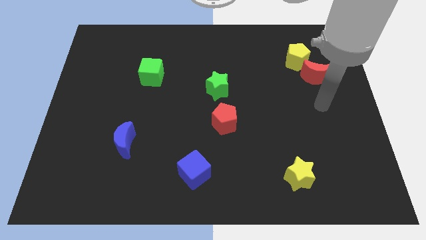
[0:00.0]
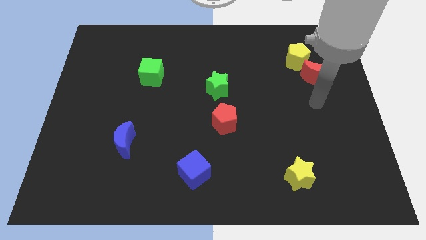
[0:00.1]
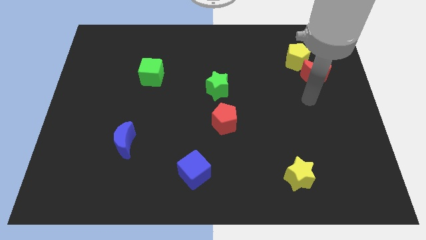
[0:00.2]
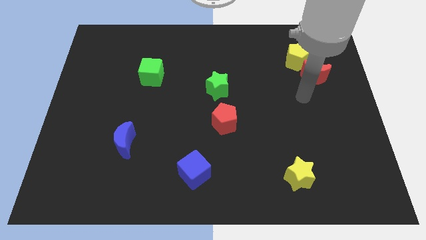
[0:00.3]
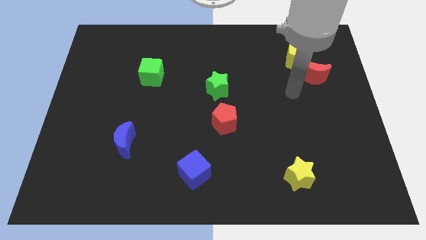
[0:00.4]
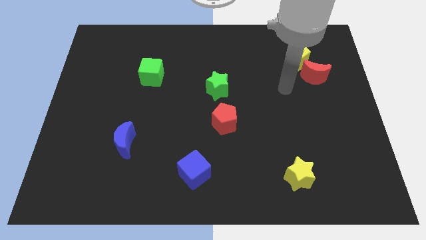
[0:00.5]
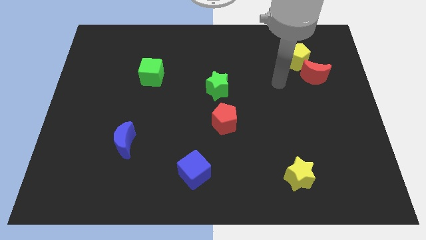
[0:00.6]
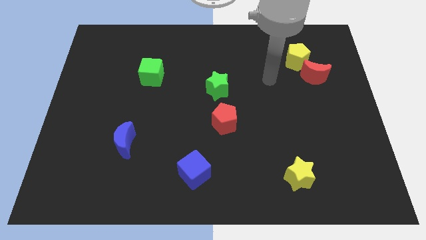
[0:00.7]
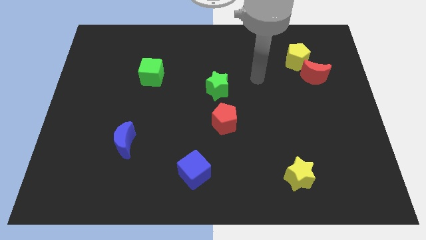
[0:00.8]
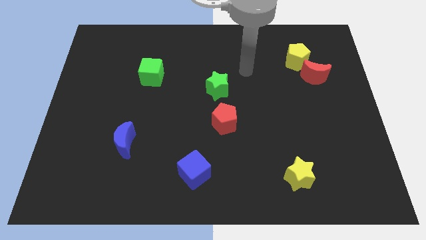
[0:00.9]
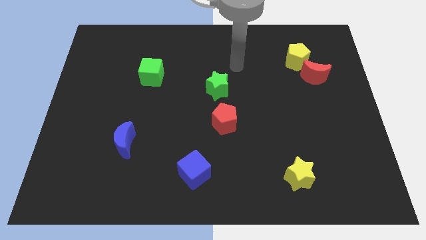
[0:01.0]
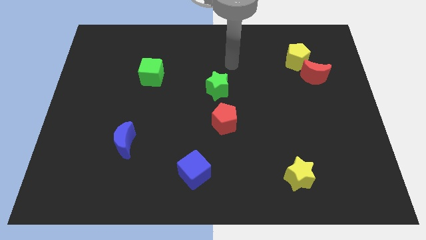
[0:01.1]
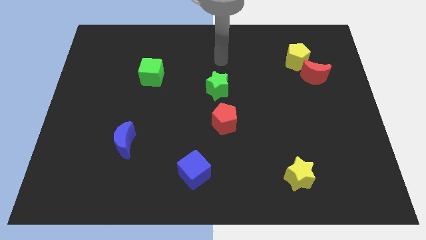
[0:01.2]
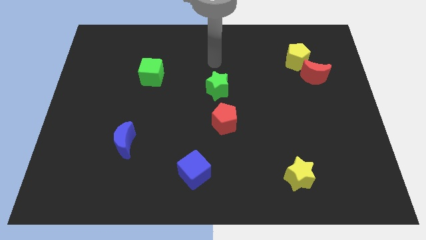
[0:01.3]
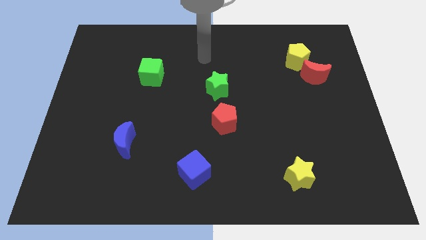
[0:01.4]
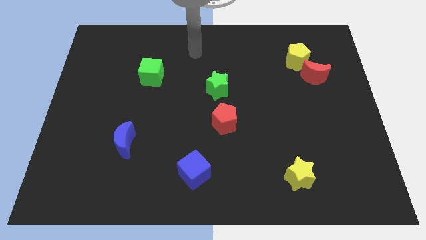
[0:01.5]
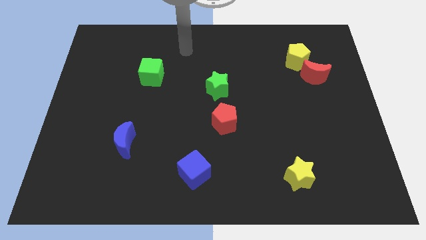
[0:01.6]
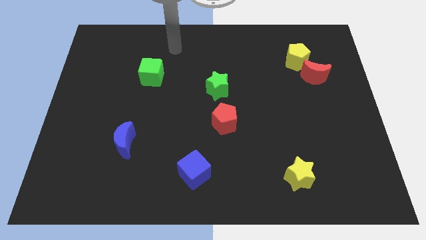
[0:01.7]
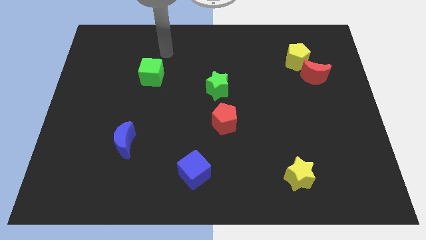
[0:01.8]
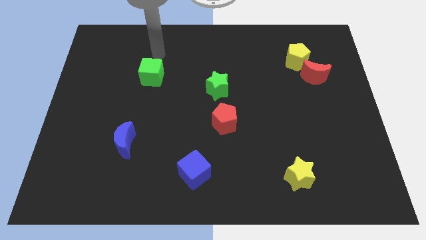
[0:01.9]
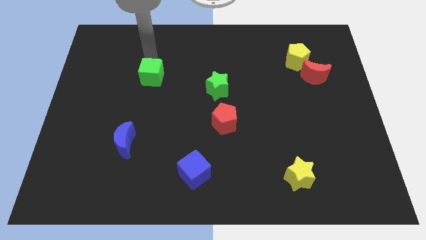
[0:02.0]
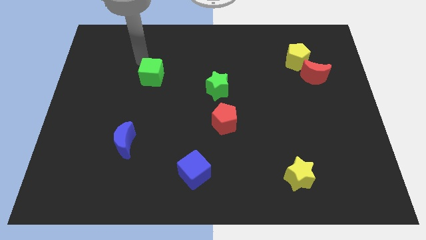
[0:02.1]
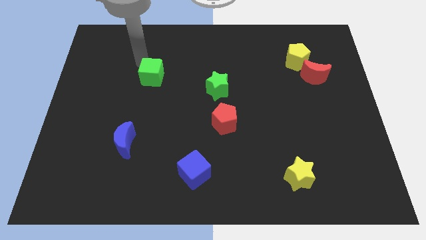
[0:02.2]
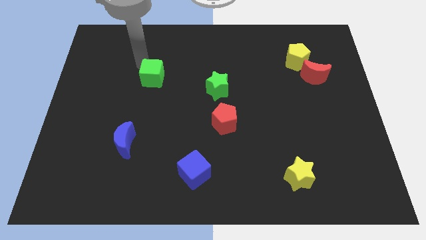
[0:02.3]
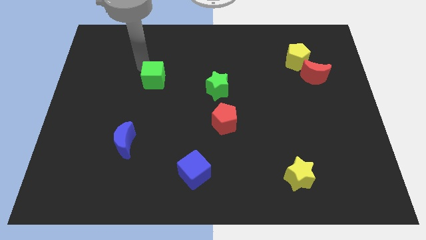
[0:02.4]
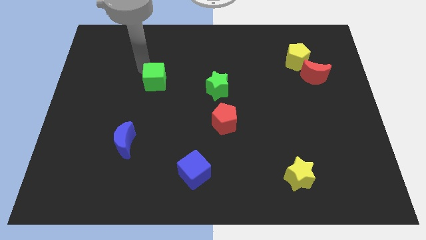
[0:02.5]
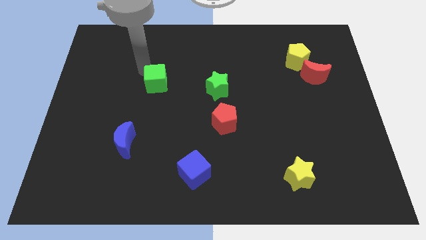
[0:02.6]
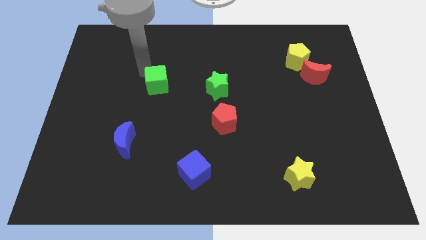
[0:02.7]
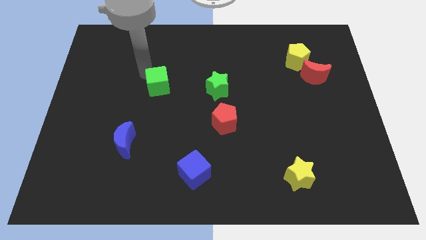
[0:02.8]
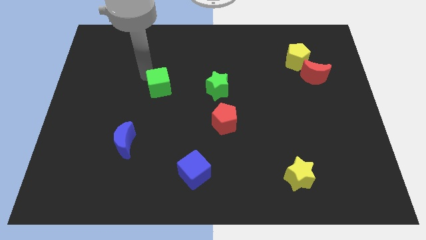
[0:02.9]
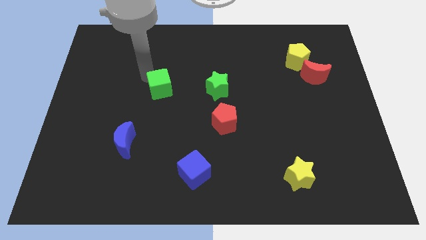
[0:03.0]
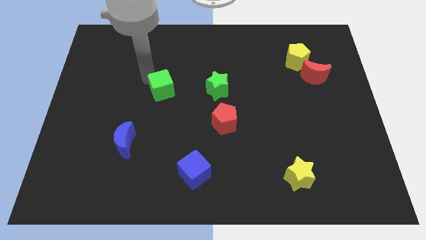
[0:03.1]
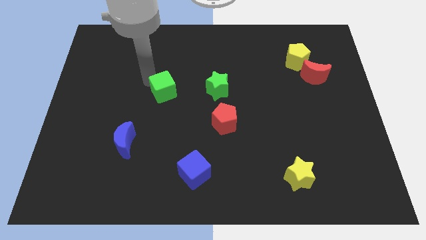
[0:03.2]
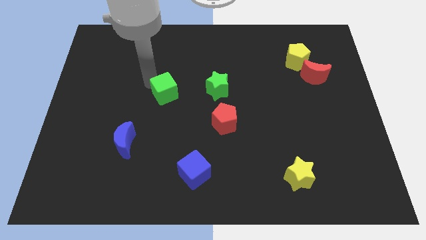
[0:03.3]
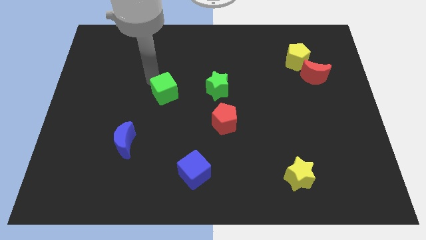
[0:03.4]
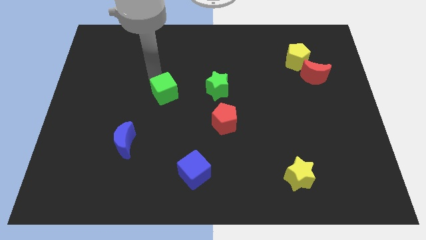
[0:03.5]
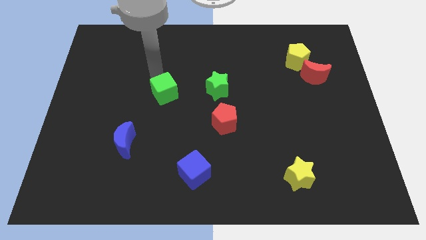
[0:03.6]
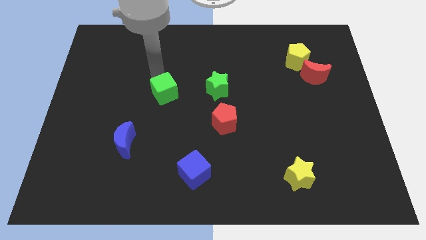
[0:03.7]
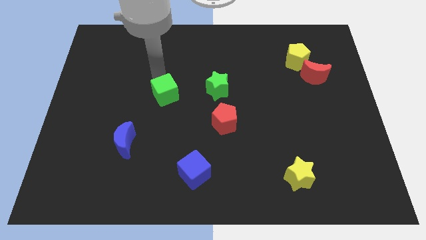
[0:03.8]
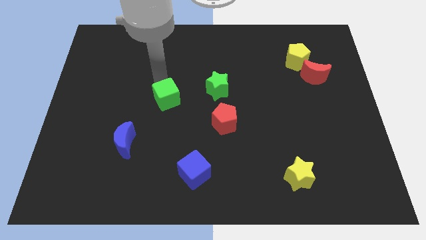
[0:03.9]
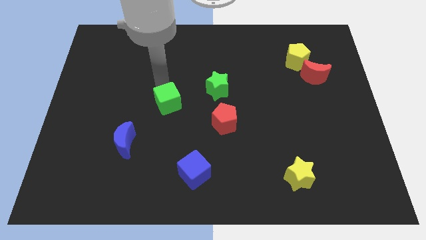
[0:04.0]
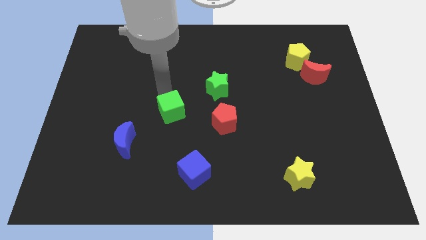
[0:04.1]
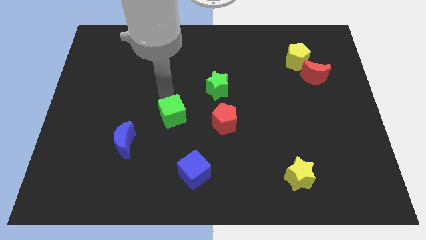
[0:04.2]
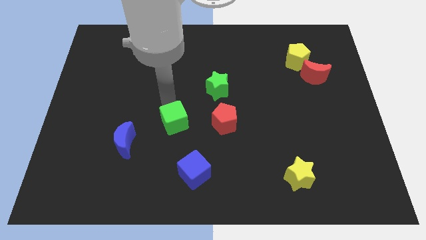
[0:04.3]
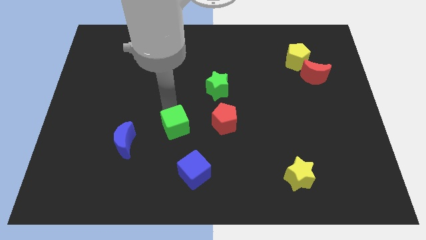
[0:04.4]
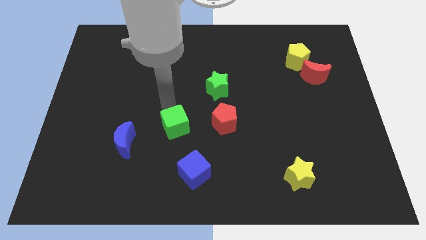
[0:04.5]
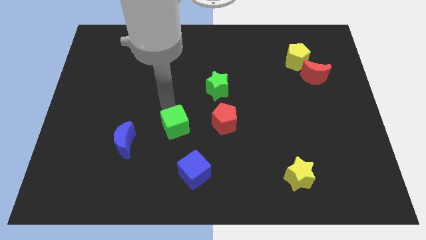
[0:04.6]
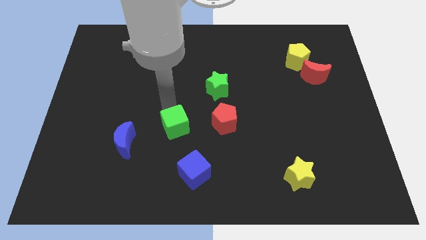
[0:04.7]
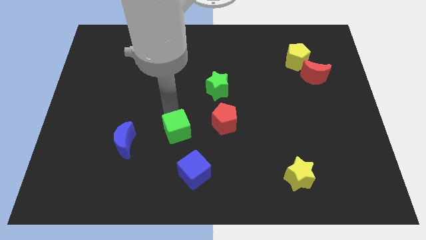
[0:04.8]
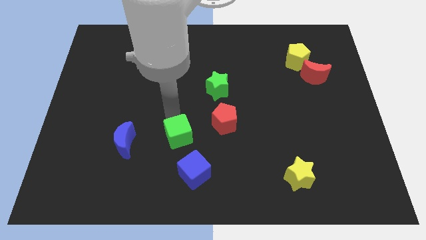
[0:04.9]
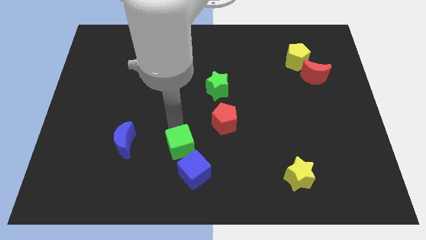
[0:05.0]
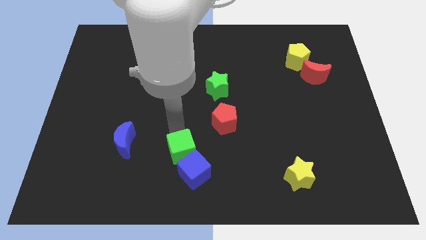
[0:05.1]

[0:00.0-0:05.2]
move the green cube close to the blue cube

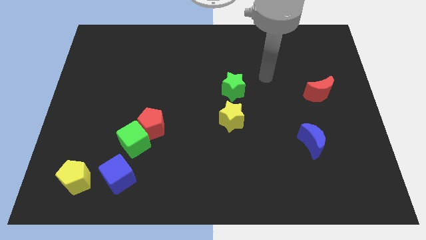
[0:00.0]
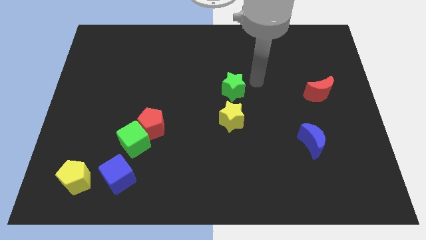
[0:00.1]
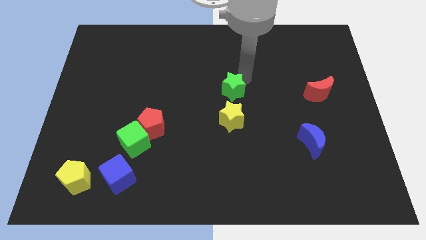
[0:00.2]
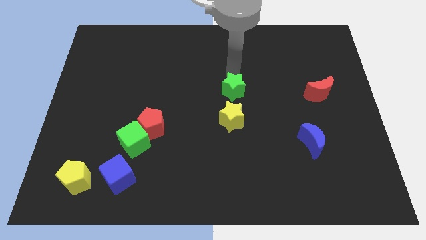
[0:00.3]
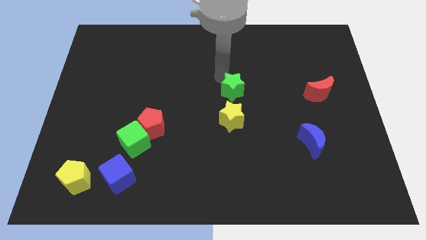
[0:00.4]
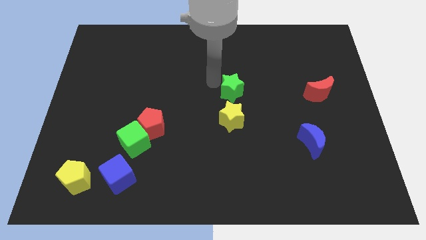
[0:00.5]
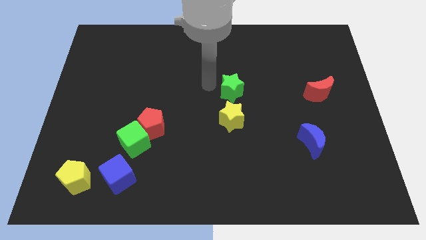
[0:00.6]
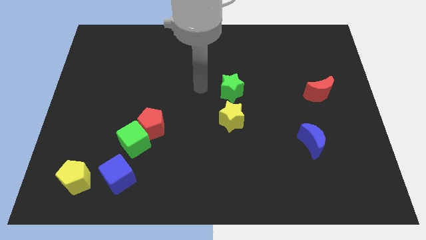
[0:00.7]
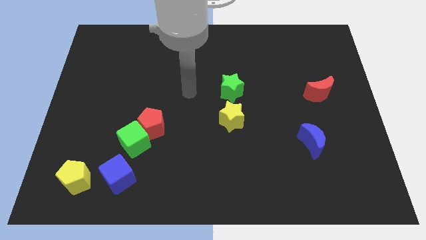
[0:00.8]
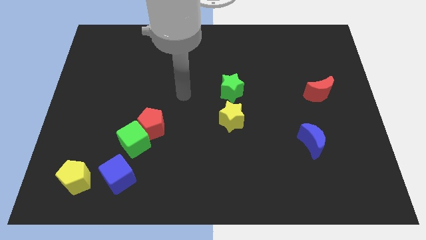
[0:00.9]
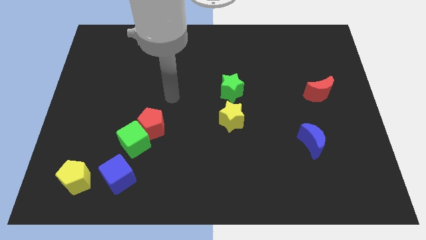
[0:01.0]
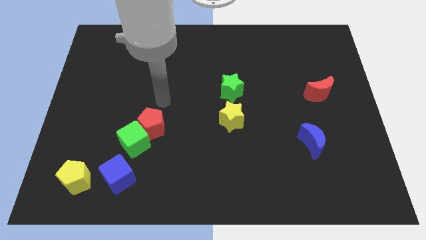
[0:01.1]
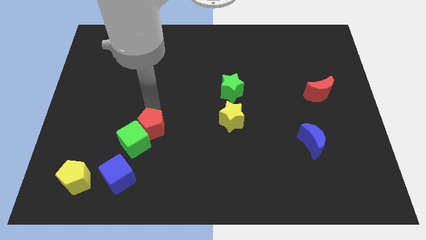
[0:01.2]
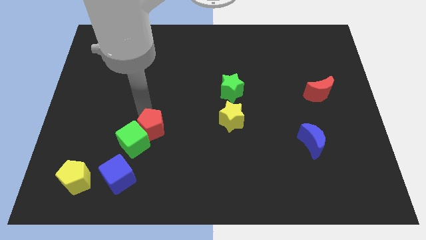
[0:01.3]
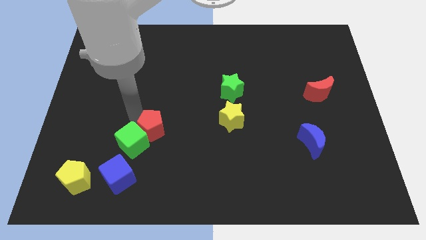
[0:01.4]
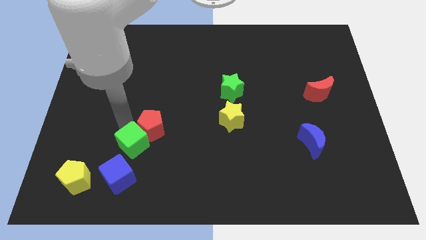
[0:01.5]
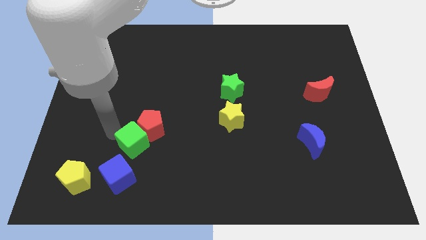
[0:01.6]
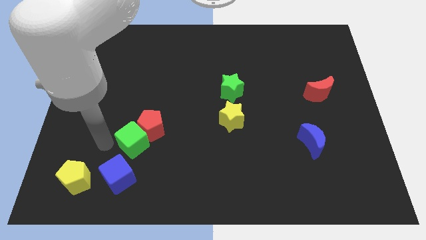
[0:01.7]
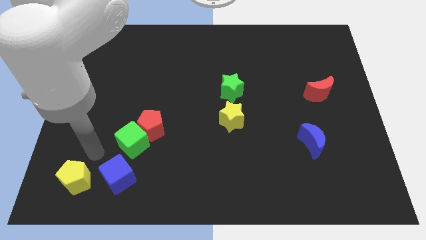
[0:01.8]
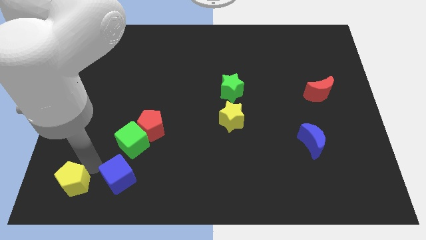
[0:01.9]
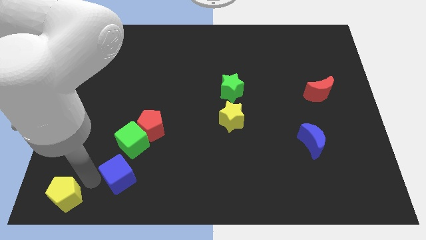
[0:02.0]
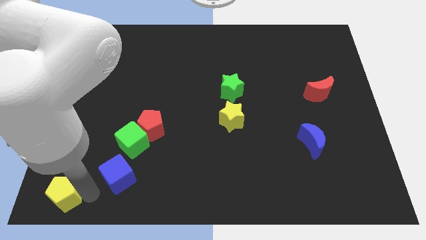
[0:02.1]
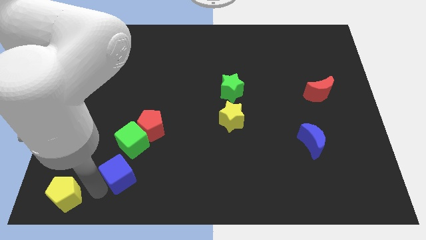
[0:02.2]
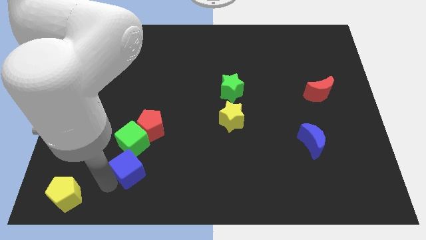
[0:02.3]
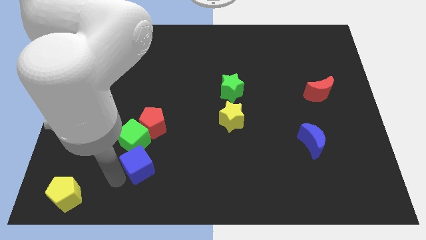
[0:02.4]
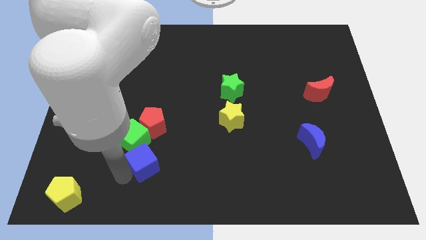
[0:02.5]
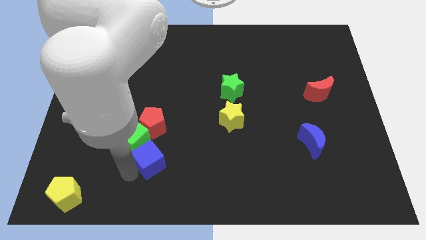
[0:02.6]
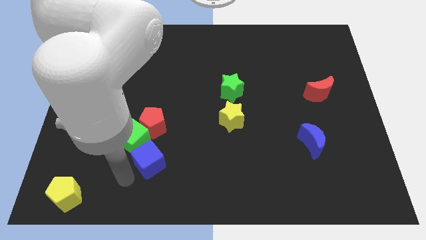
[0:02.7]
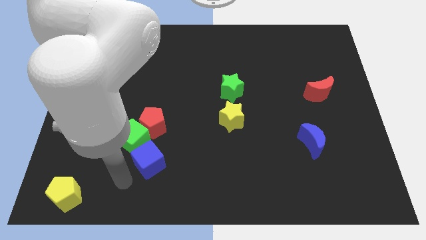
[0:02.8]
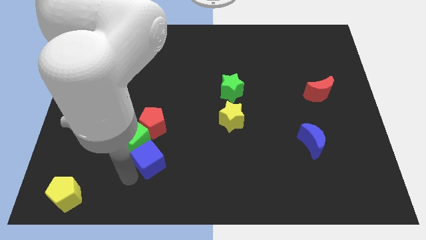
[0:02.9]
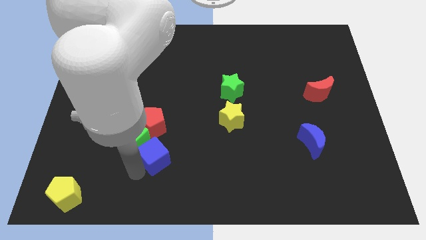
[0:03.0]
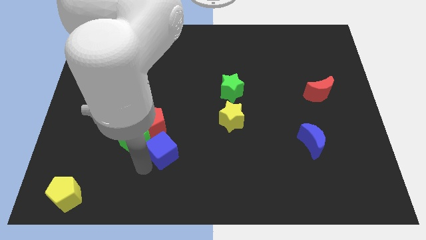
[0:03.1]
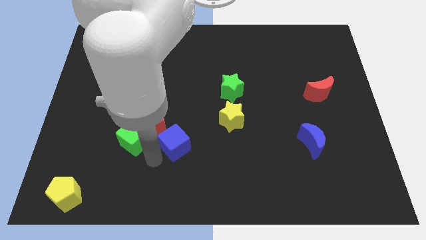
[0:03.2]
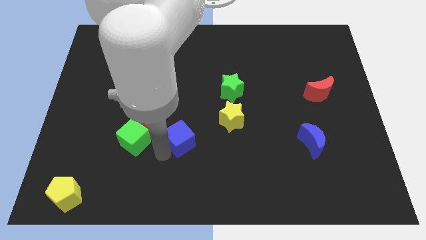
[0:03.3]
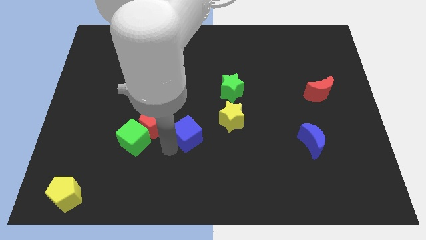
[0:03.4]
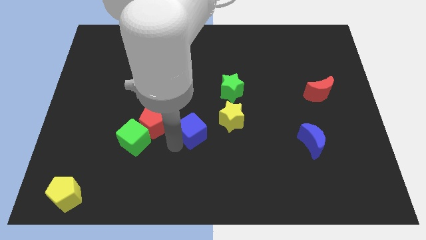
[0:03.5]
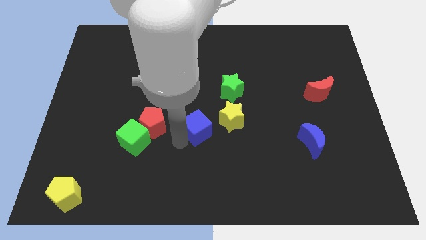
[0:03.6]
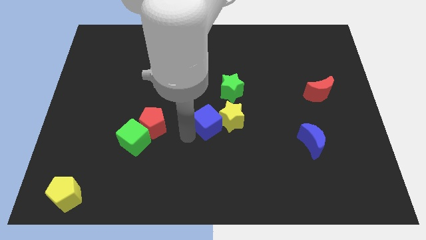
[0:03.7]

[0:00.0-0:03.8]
move the blue cube to the yellow star
